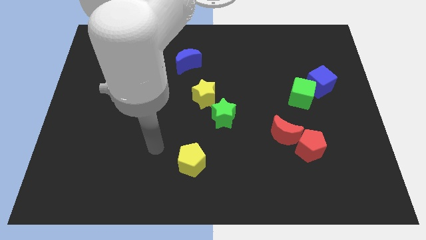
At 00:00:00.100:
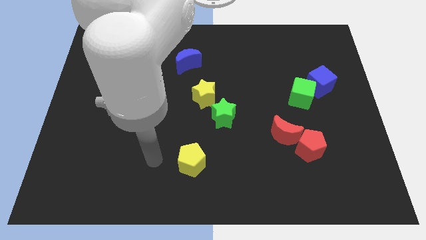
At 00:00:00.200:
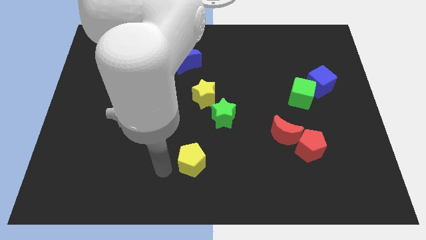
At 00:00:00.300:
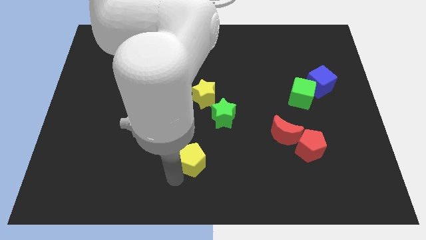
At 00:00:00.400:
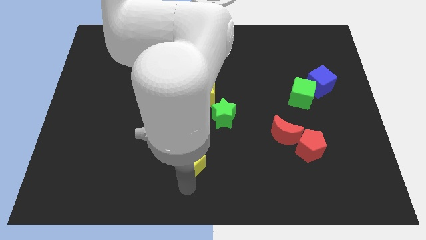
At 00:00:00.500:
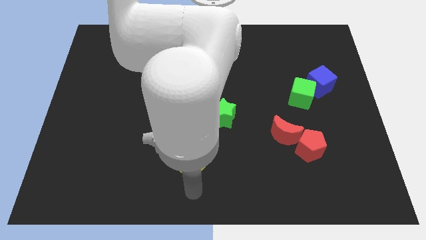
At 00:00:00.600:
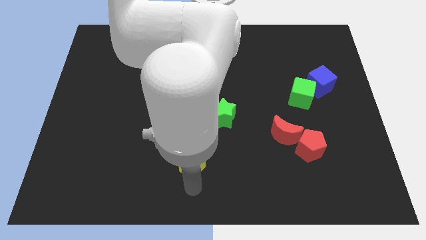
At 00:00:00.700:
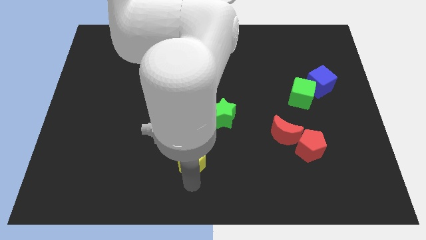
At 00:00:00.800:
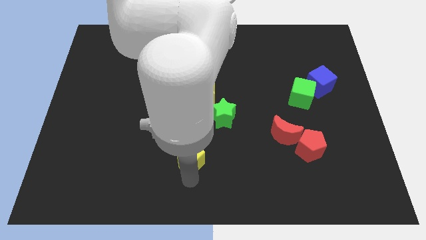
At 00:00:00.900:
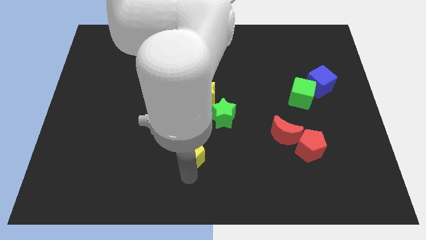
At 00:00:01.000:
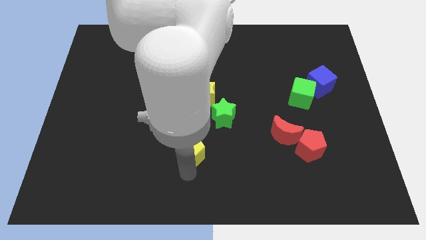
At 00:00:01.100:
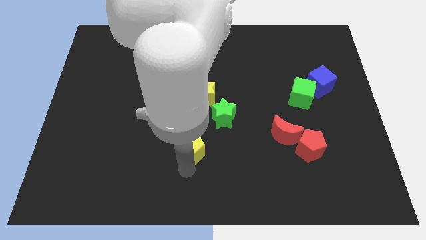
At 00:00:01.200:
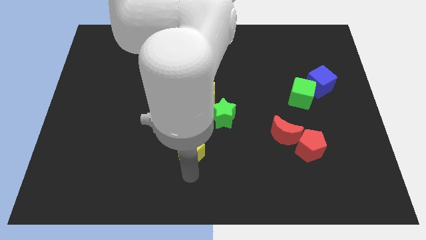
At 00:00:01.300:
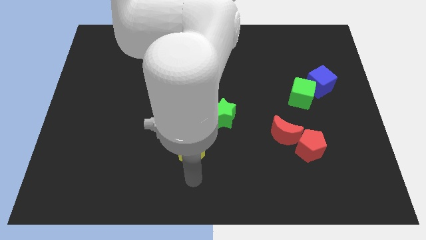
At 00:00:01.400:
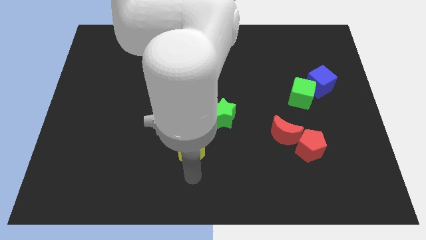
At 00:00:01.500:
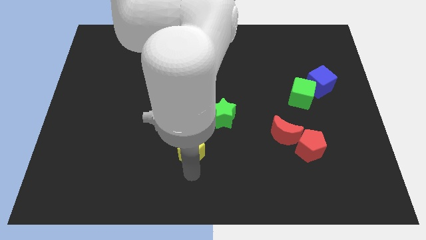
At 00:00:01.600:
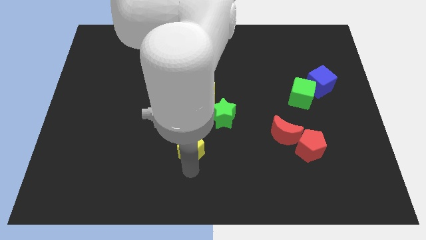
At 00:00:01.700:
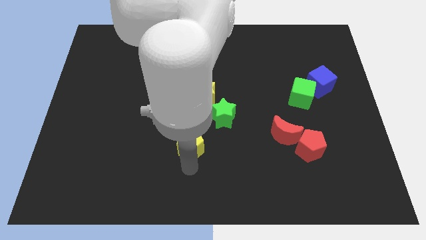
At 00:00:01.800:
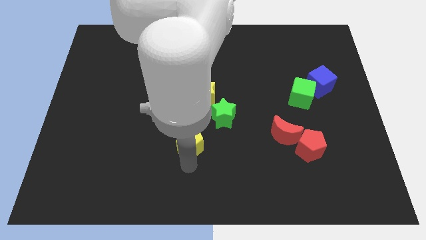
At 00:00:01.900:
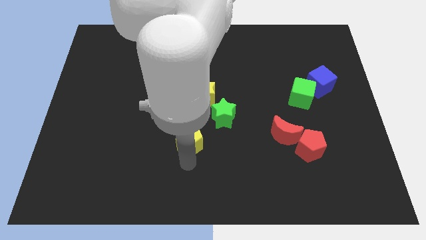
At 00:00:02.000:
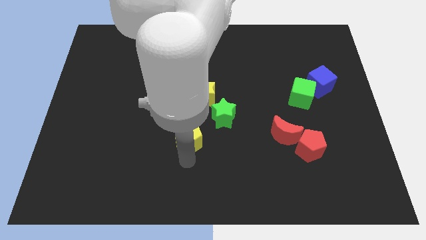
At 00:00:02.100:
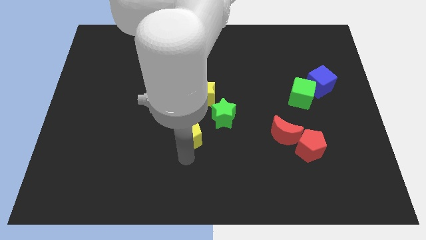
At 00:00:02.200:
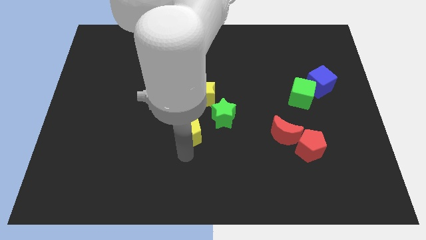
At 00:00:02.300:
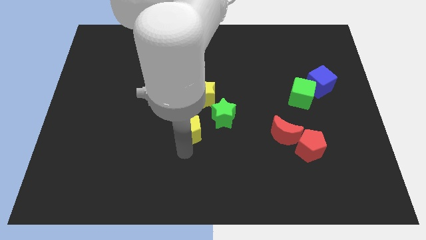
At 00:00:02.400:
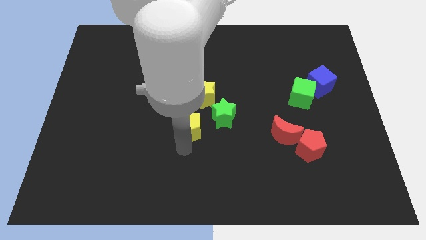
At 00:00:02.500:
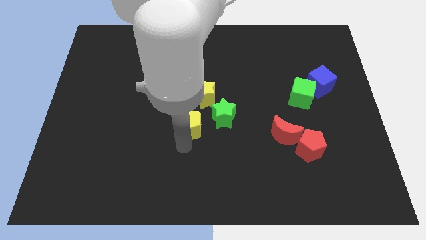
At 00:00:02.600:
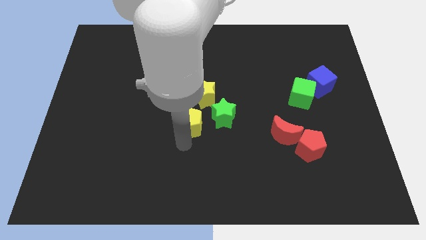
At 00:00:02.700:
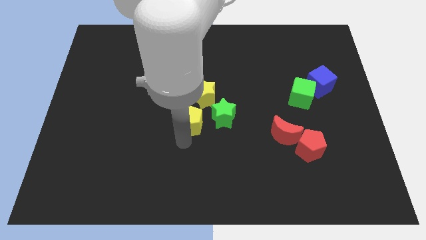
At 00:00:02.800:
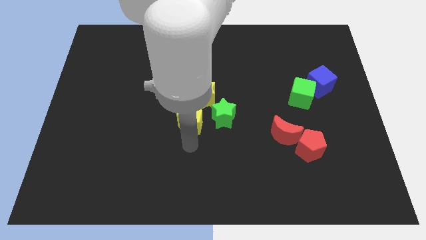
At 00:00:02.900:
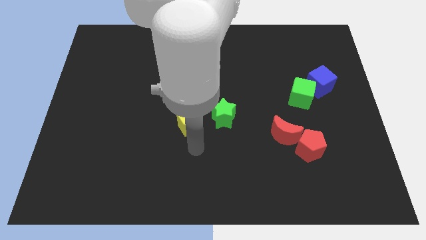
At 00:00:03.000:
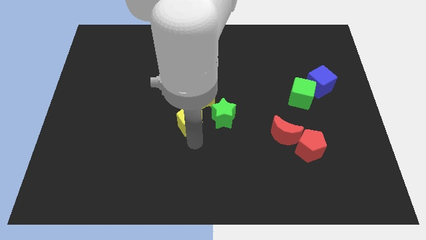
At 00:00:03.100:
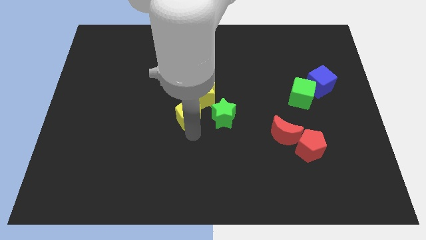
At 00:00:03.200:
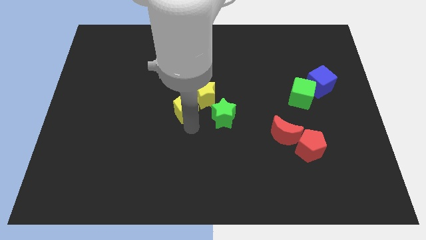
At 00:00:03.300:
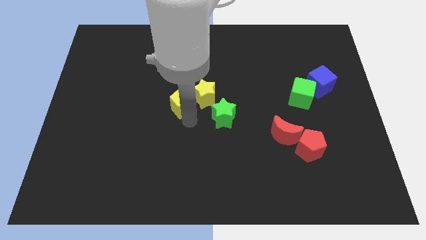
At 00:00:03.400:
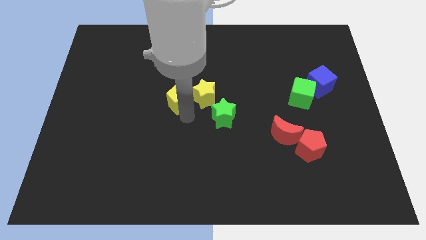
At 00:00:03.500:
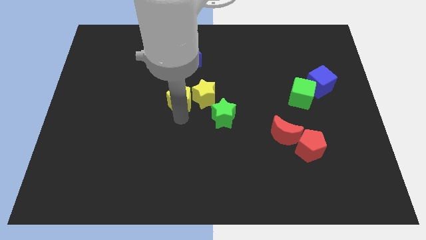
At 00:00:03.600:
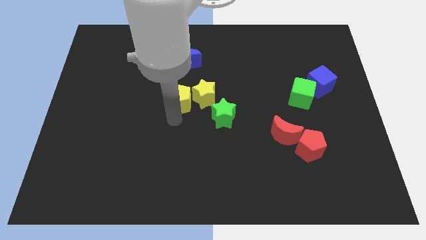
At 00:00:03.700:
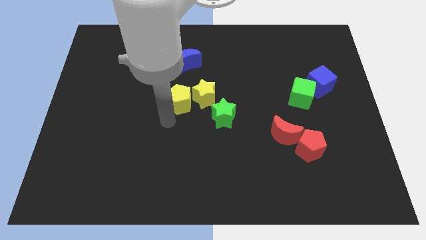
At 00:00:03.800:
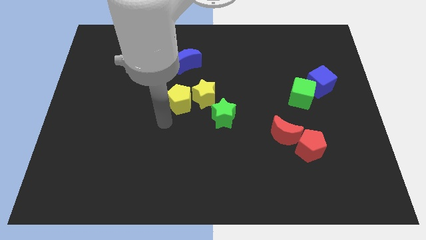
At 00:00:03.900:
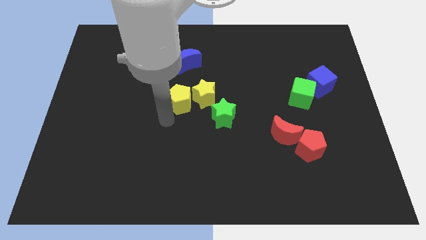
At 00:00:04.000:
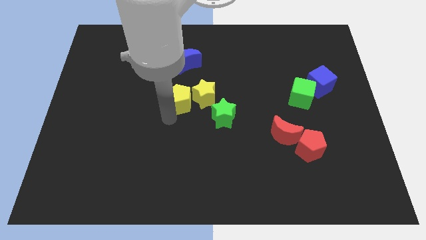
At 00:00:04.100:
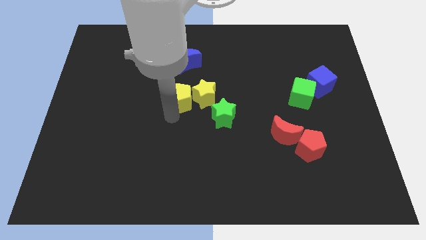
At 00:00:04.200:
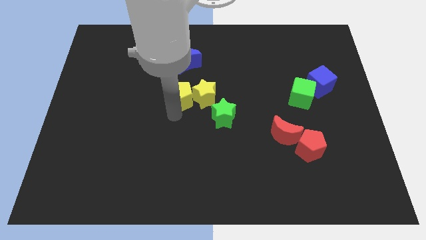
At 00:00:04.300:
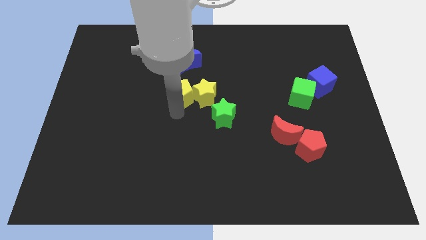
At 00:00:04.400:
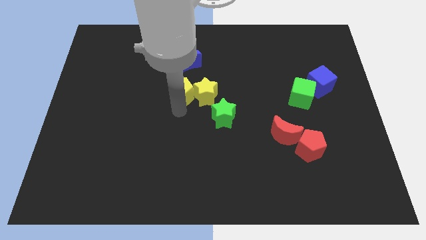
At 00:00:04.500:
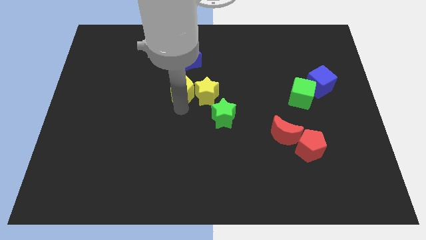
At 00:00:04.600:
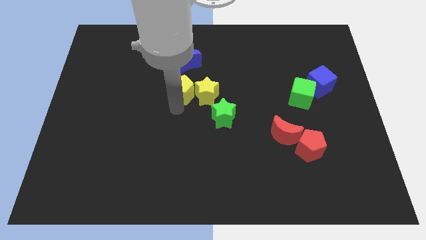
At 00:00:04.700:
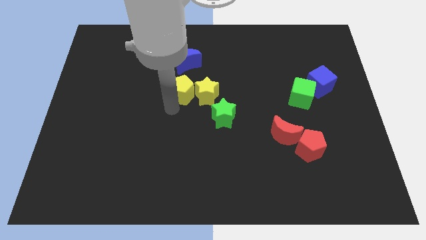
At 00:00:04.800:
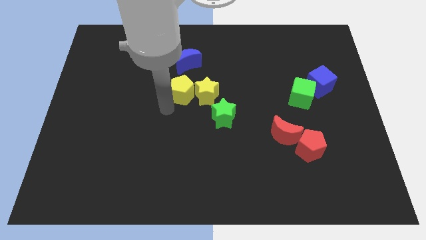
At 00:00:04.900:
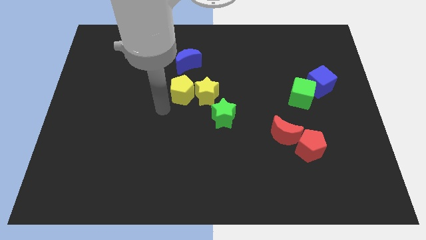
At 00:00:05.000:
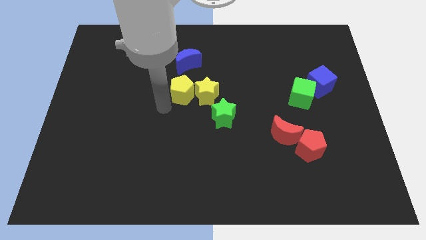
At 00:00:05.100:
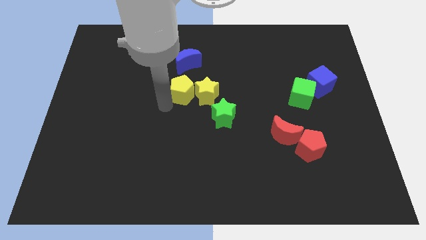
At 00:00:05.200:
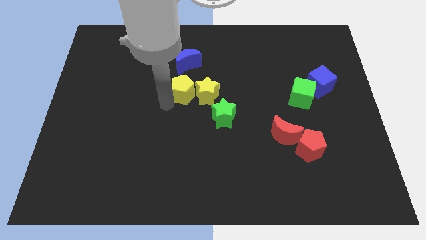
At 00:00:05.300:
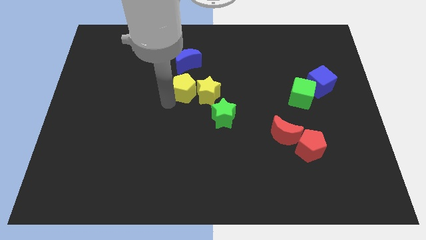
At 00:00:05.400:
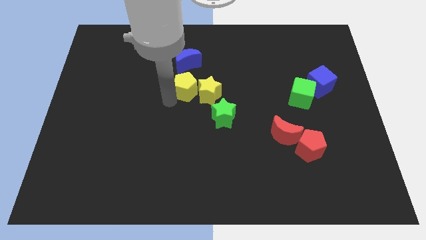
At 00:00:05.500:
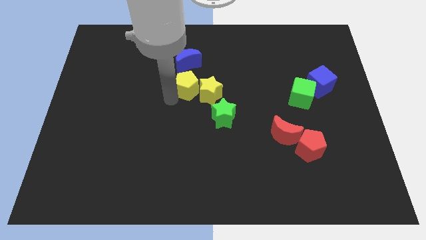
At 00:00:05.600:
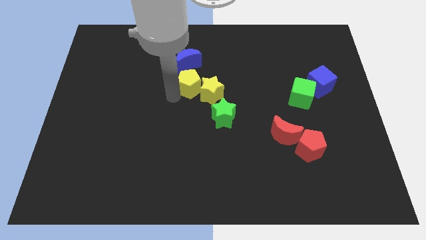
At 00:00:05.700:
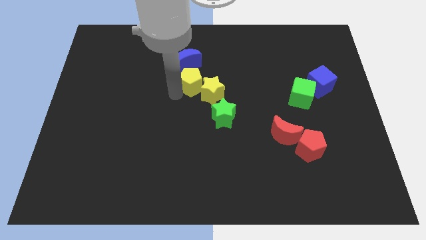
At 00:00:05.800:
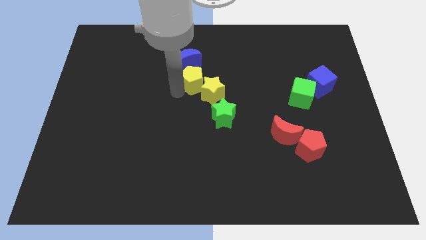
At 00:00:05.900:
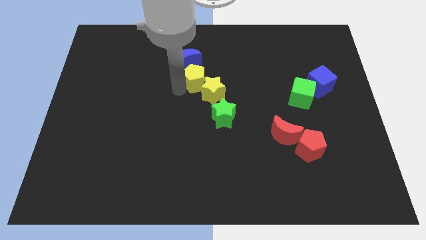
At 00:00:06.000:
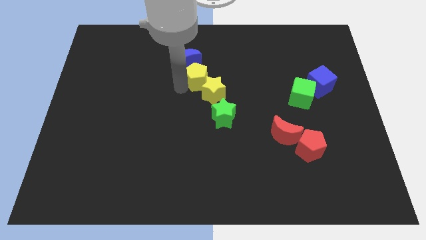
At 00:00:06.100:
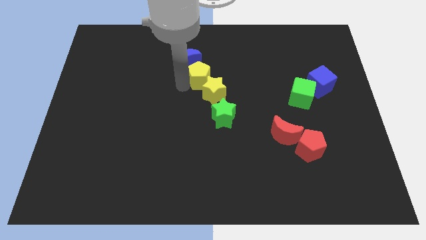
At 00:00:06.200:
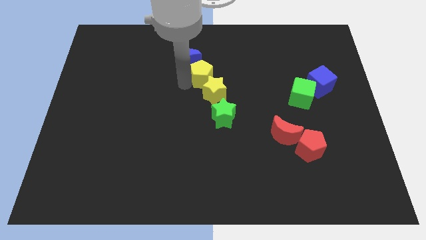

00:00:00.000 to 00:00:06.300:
push the yellow pentagon to the top of the green star

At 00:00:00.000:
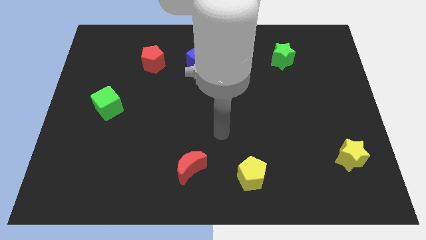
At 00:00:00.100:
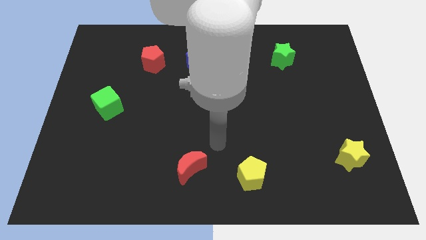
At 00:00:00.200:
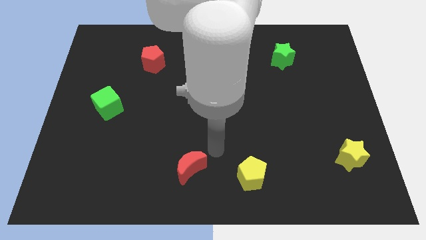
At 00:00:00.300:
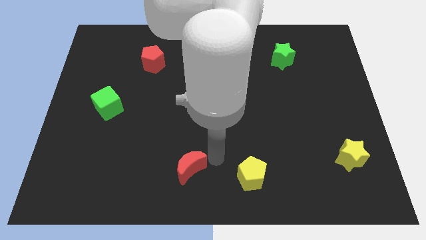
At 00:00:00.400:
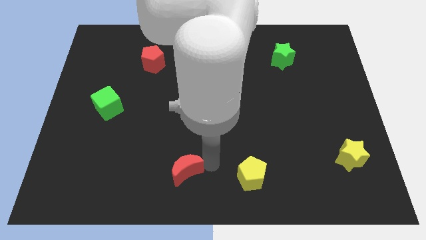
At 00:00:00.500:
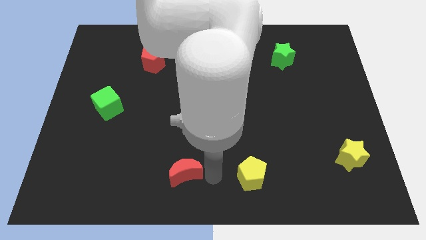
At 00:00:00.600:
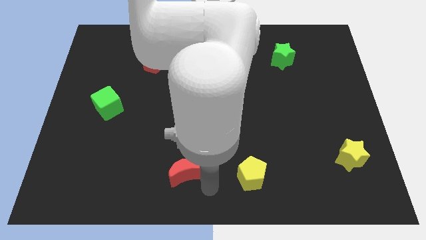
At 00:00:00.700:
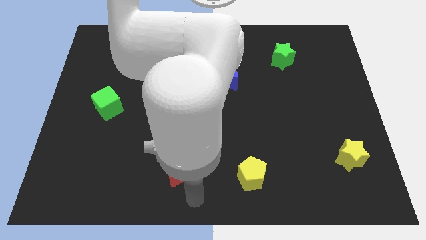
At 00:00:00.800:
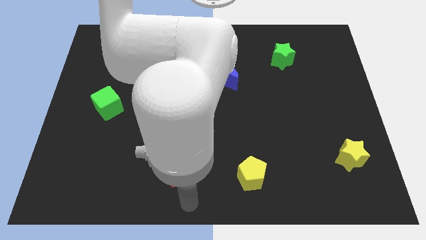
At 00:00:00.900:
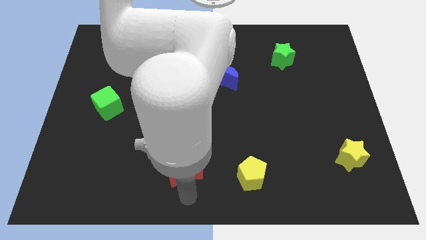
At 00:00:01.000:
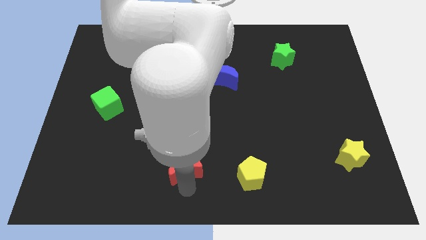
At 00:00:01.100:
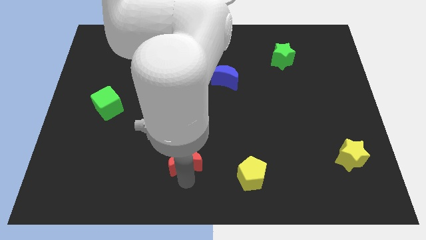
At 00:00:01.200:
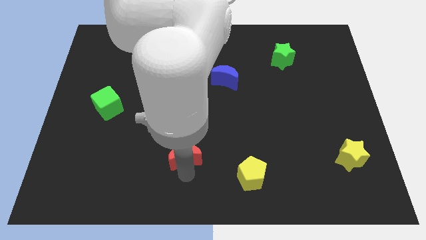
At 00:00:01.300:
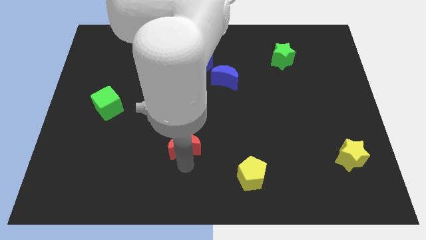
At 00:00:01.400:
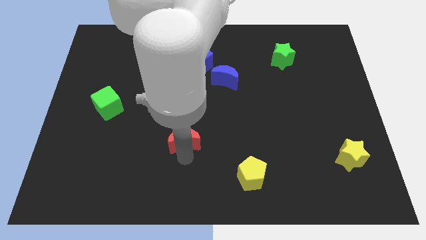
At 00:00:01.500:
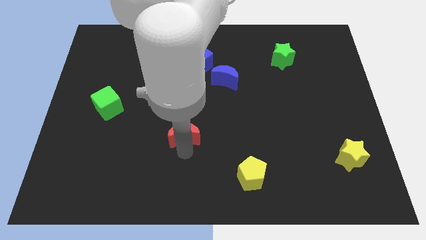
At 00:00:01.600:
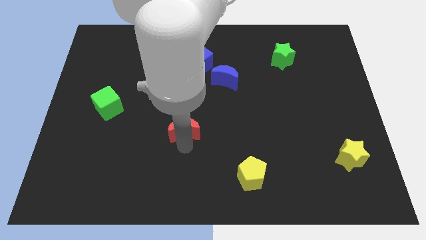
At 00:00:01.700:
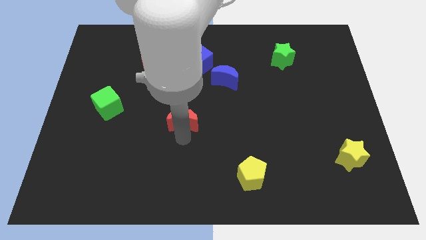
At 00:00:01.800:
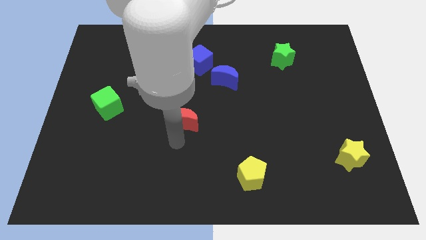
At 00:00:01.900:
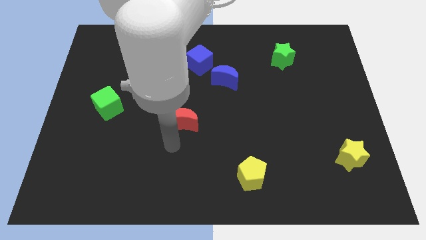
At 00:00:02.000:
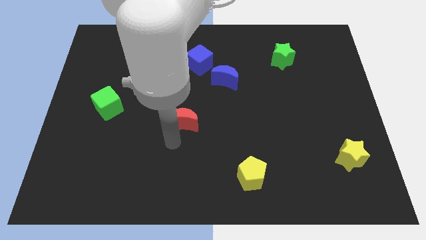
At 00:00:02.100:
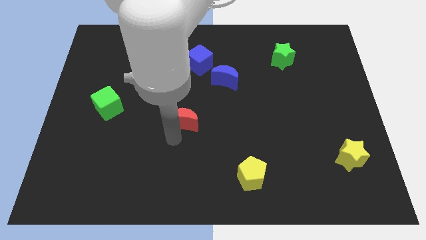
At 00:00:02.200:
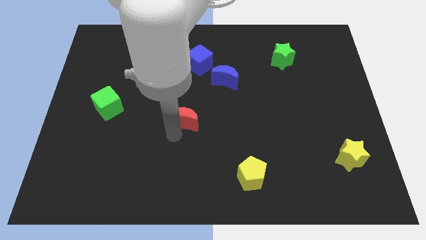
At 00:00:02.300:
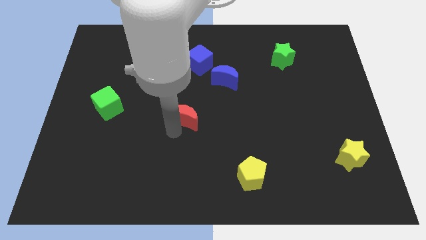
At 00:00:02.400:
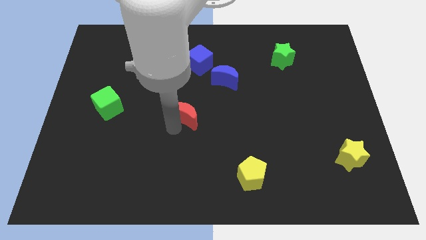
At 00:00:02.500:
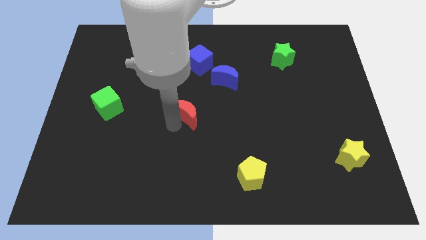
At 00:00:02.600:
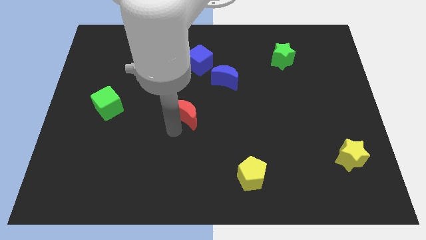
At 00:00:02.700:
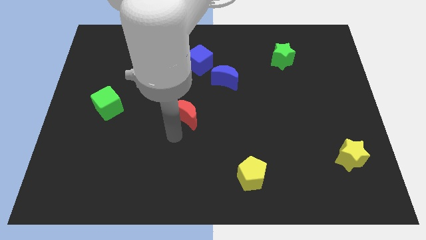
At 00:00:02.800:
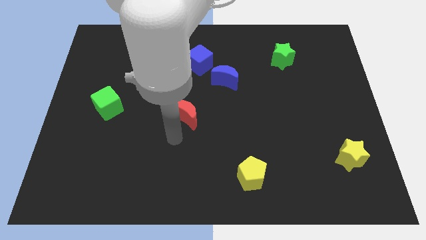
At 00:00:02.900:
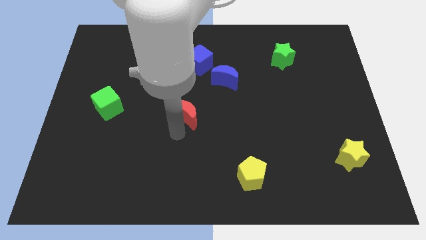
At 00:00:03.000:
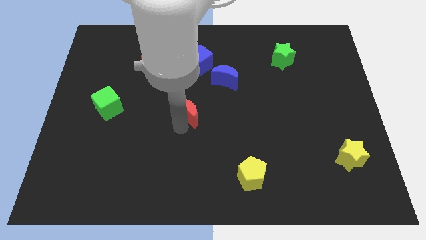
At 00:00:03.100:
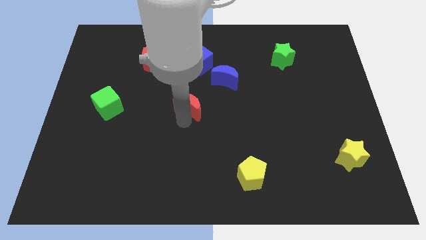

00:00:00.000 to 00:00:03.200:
move the red moon to the bottom side of the blue cube
